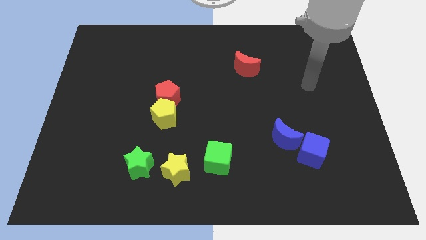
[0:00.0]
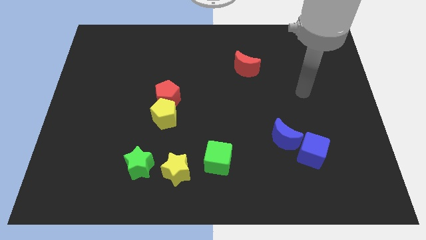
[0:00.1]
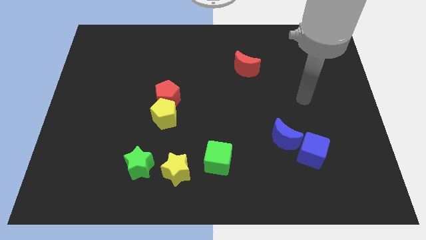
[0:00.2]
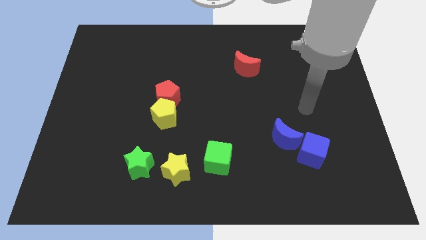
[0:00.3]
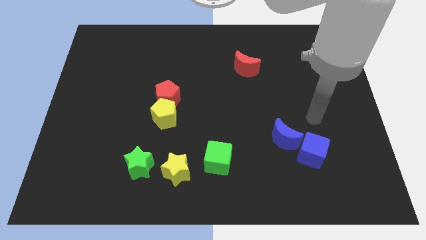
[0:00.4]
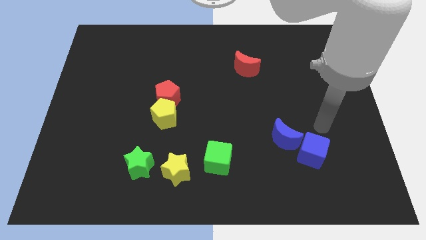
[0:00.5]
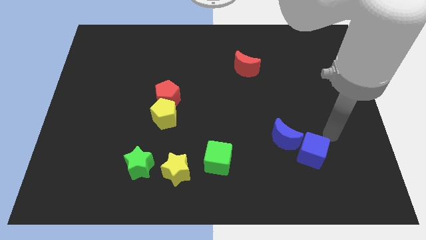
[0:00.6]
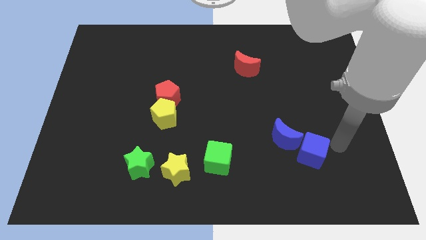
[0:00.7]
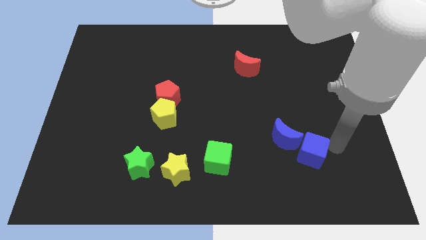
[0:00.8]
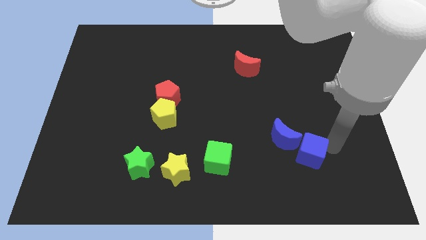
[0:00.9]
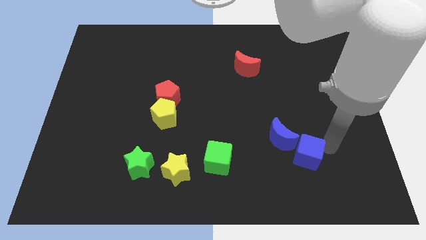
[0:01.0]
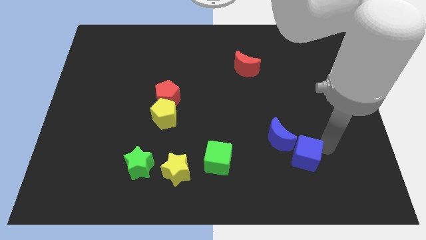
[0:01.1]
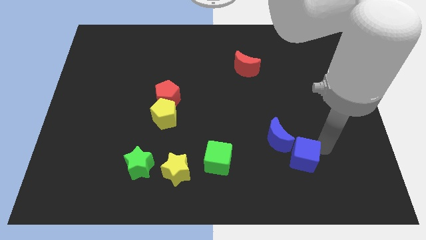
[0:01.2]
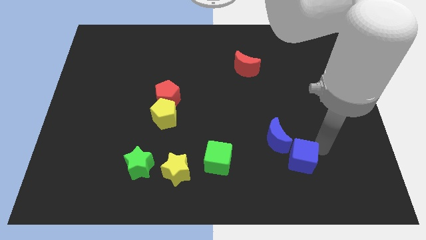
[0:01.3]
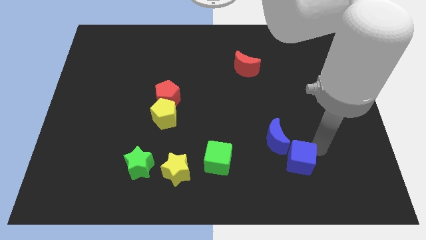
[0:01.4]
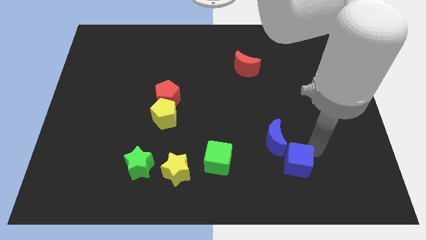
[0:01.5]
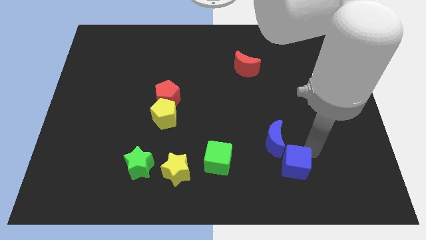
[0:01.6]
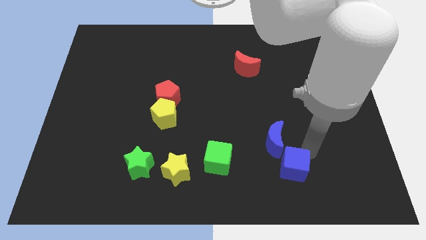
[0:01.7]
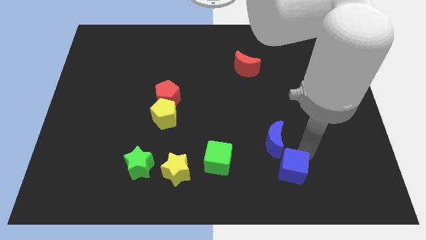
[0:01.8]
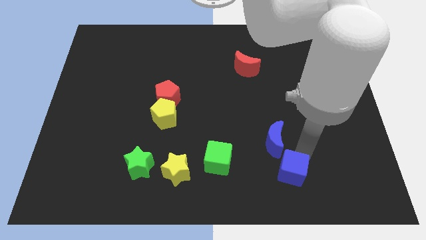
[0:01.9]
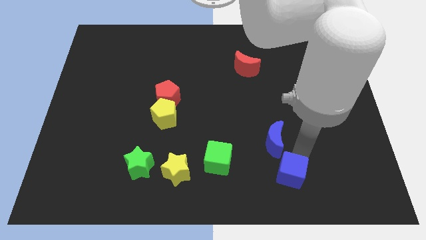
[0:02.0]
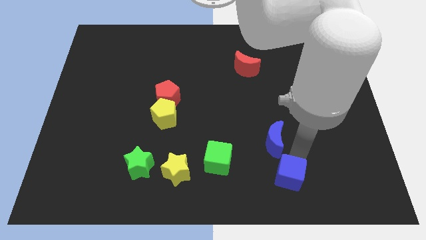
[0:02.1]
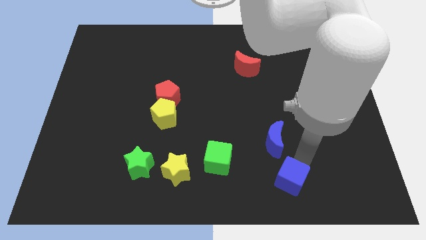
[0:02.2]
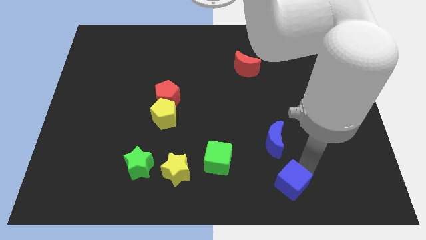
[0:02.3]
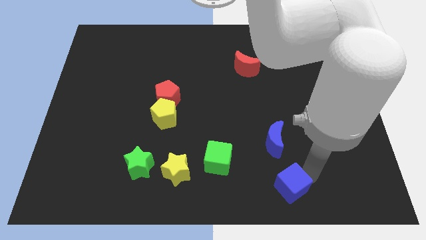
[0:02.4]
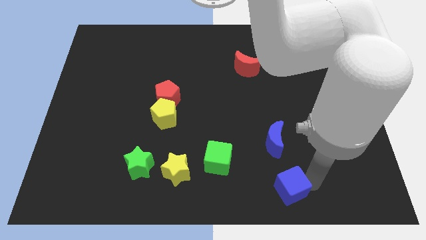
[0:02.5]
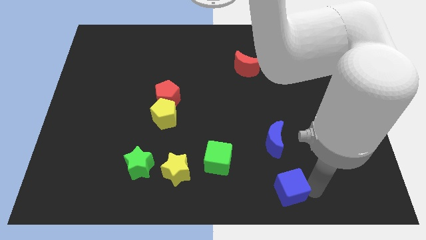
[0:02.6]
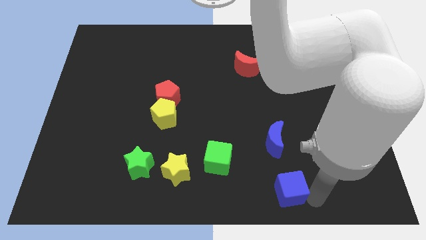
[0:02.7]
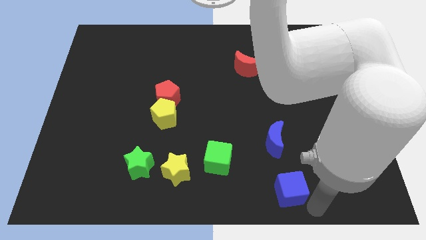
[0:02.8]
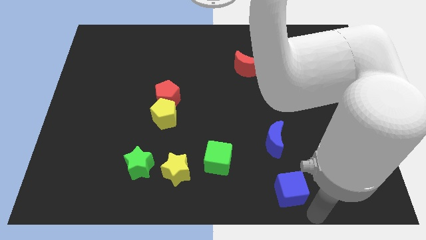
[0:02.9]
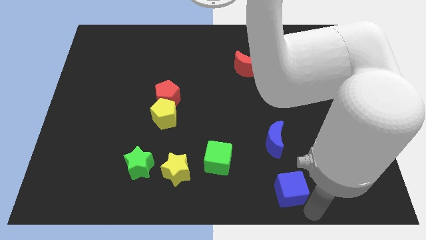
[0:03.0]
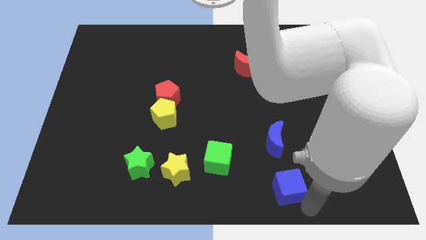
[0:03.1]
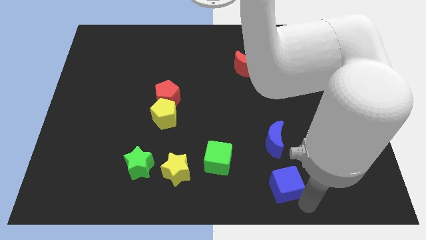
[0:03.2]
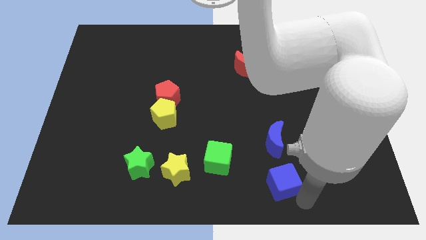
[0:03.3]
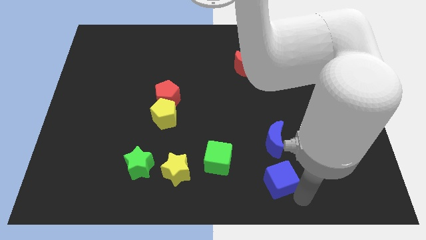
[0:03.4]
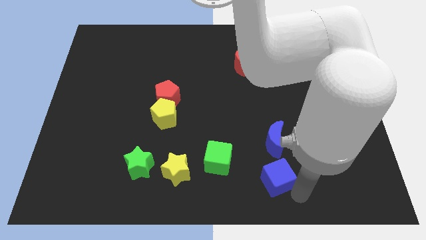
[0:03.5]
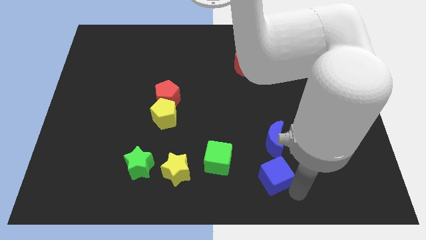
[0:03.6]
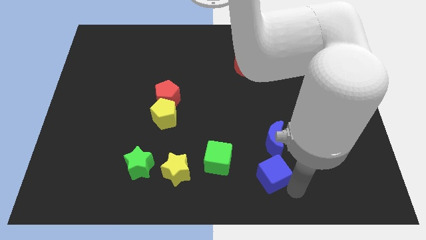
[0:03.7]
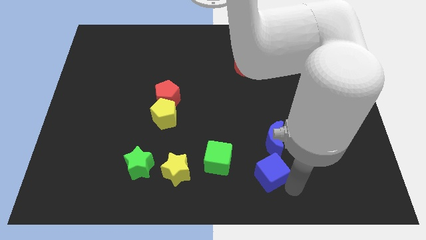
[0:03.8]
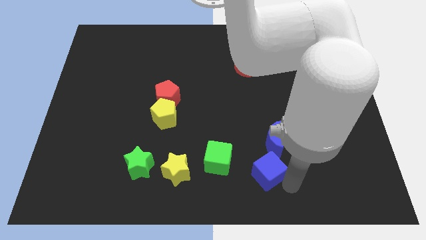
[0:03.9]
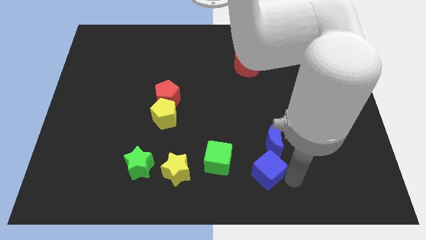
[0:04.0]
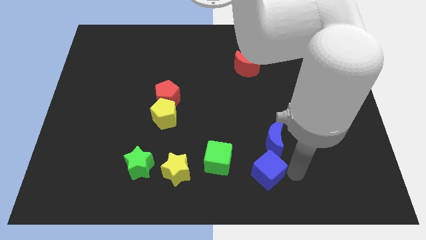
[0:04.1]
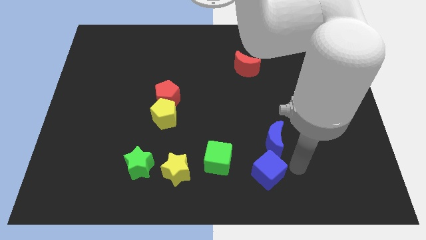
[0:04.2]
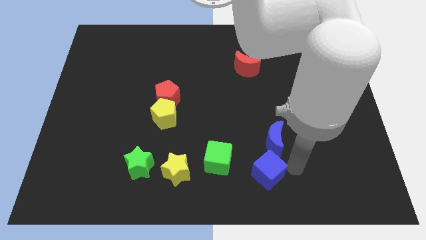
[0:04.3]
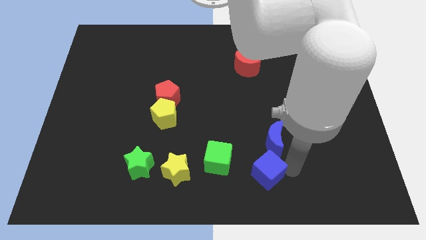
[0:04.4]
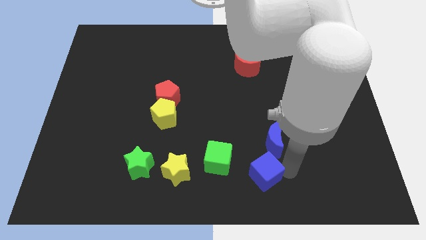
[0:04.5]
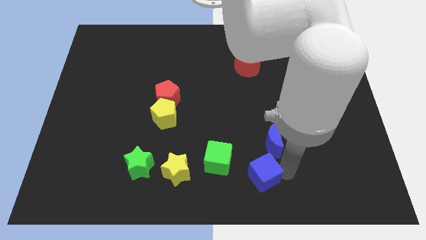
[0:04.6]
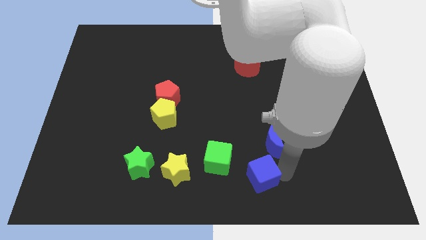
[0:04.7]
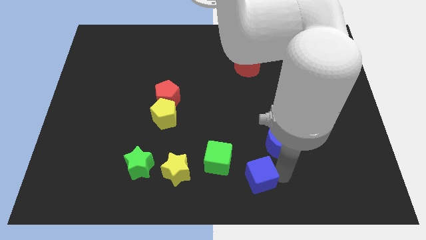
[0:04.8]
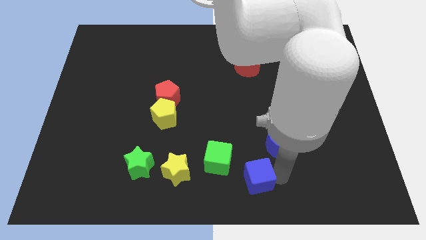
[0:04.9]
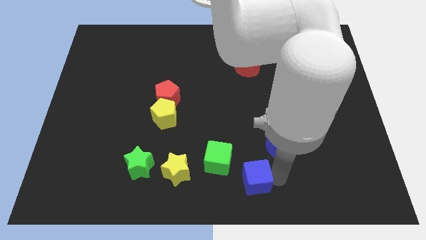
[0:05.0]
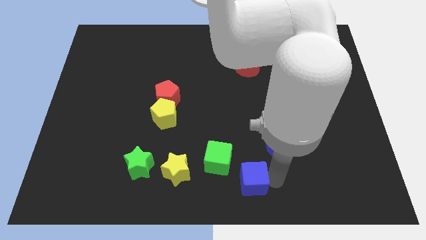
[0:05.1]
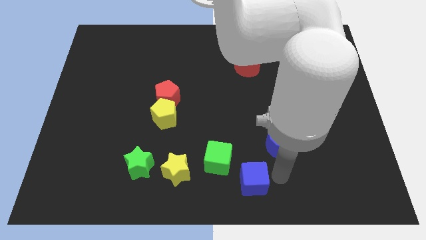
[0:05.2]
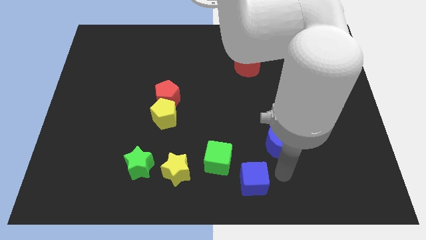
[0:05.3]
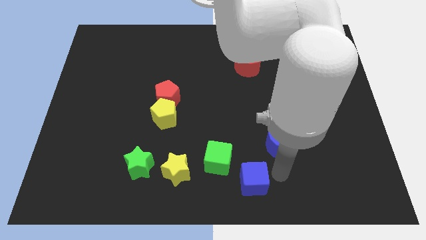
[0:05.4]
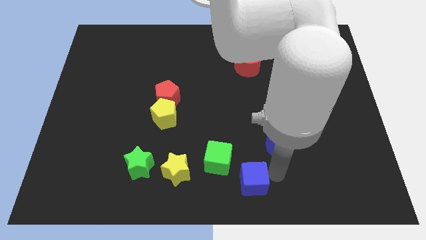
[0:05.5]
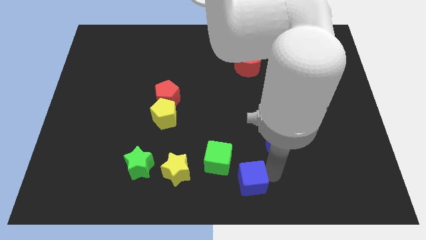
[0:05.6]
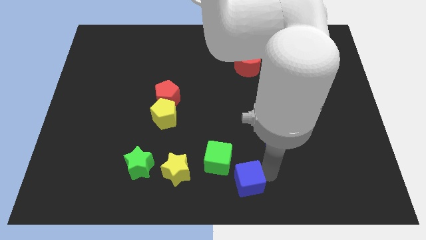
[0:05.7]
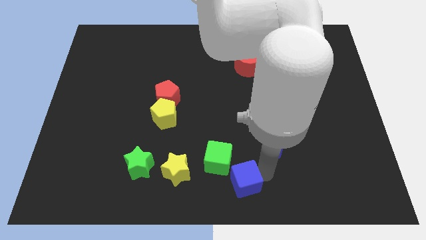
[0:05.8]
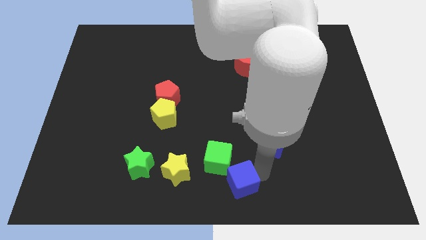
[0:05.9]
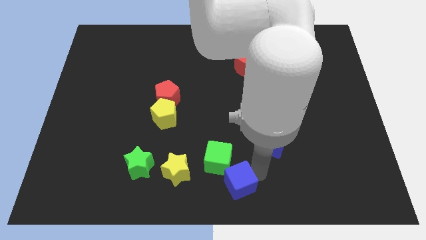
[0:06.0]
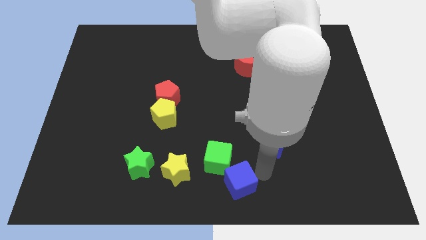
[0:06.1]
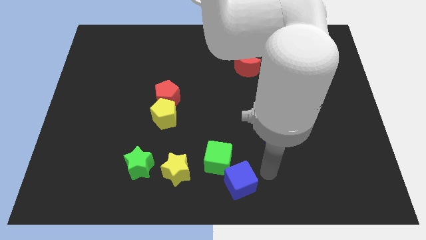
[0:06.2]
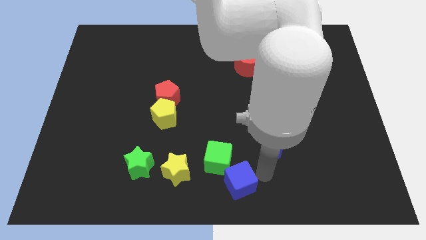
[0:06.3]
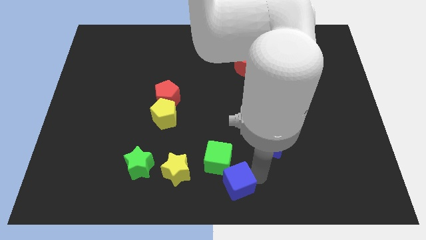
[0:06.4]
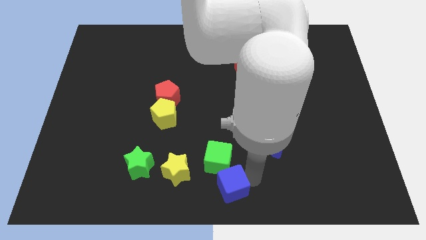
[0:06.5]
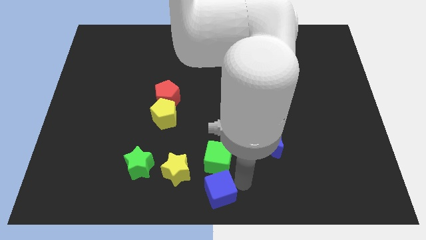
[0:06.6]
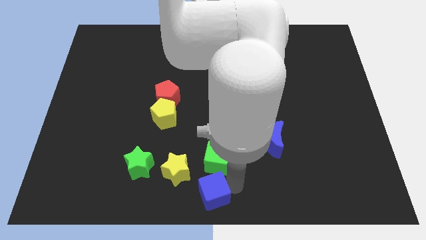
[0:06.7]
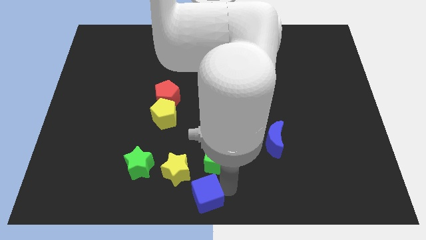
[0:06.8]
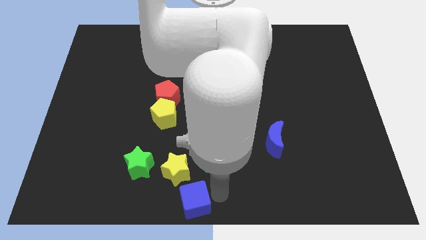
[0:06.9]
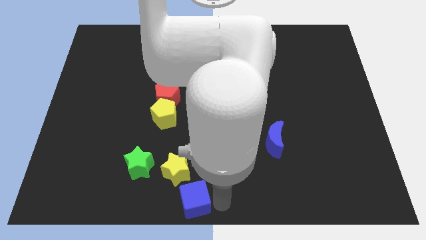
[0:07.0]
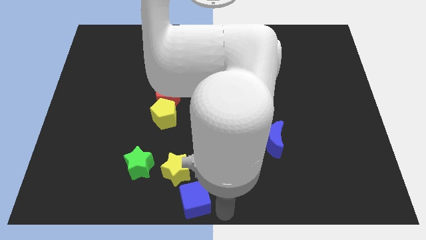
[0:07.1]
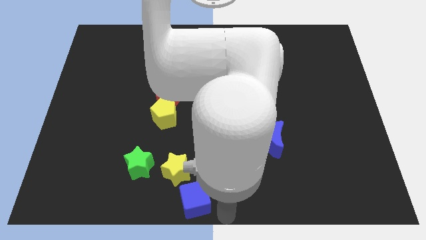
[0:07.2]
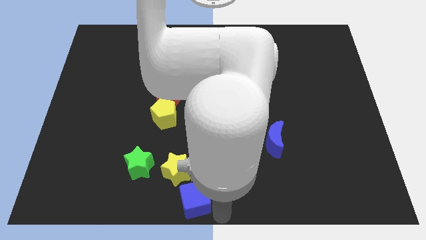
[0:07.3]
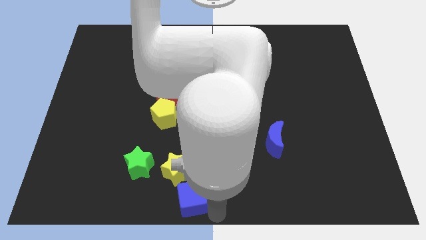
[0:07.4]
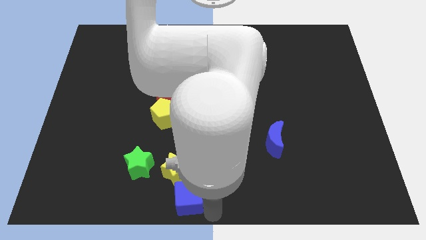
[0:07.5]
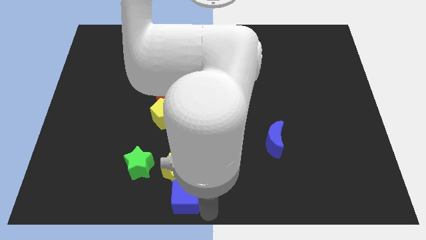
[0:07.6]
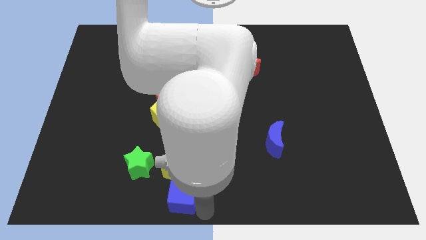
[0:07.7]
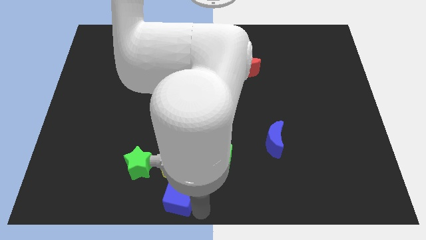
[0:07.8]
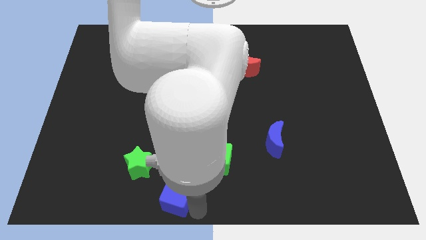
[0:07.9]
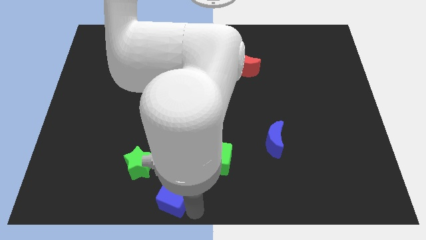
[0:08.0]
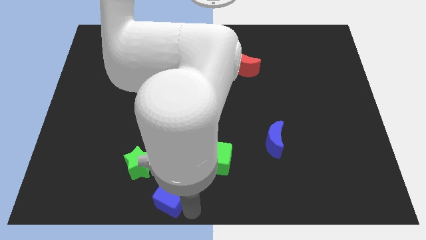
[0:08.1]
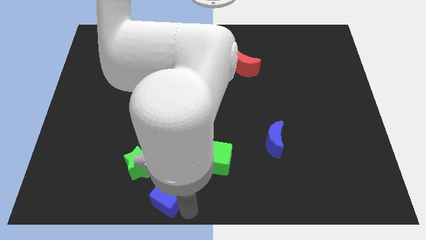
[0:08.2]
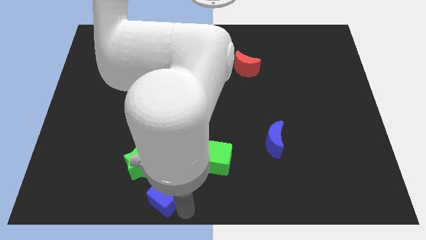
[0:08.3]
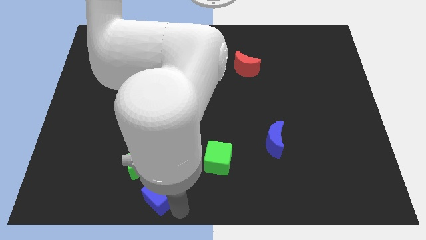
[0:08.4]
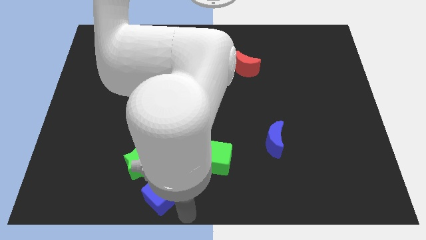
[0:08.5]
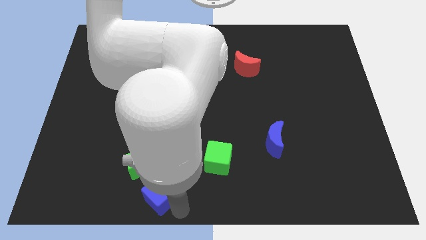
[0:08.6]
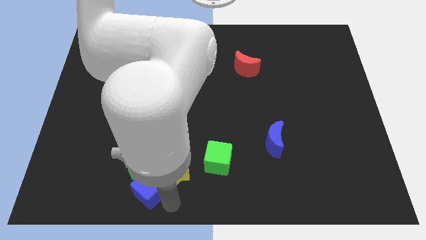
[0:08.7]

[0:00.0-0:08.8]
slide the blue cube to the left of the yellow star
